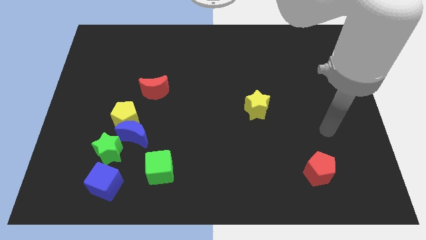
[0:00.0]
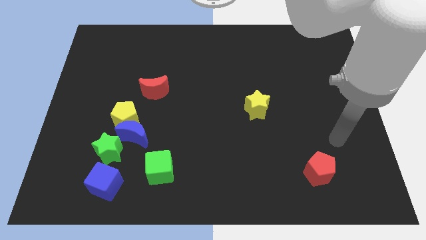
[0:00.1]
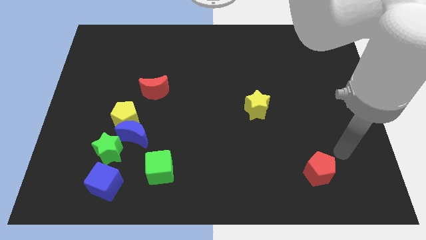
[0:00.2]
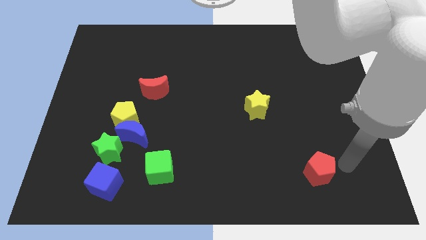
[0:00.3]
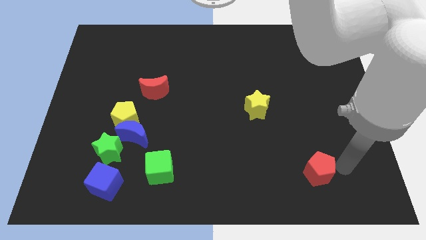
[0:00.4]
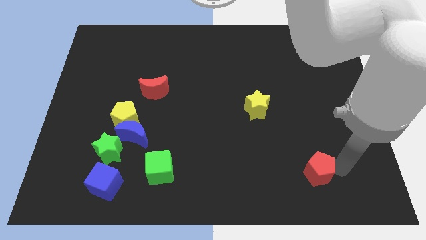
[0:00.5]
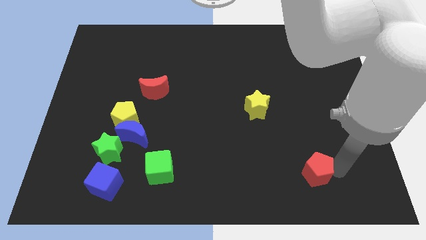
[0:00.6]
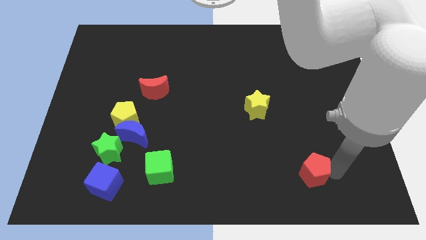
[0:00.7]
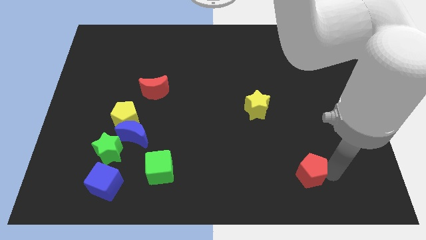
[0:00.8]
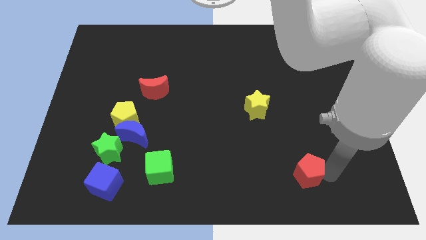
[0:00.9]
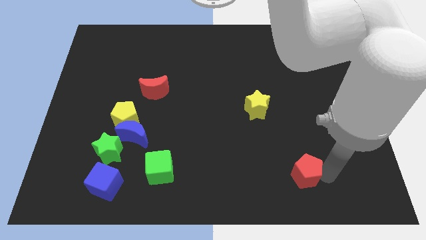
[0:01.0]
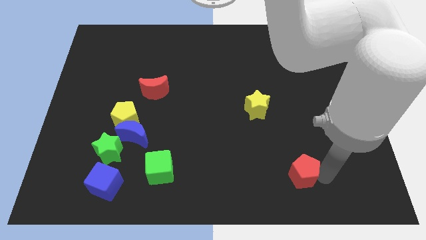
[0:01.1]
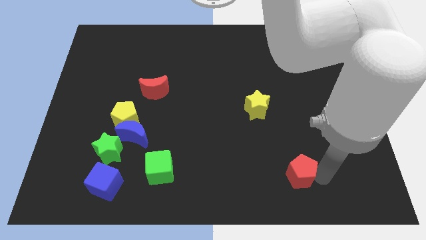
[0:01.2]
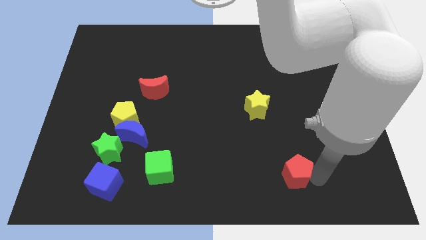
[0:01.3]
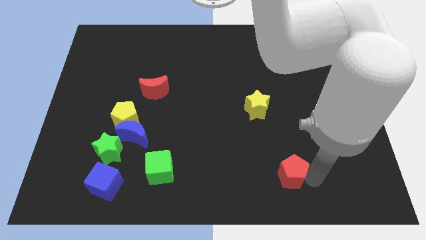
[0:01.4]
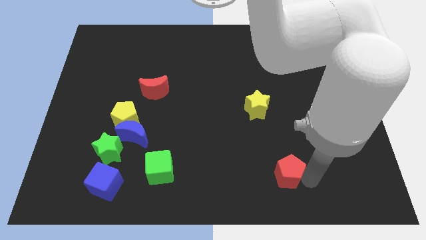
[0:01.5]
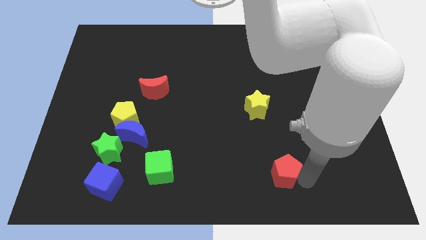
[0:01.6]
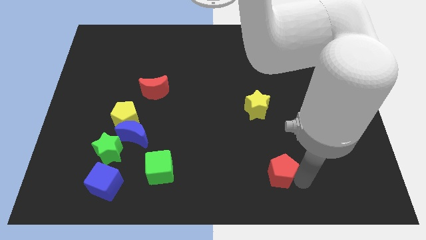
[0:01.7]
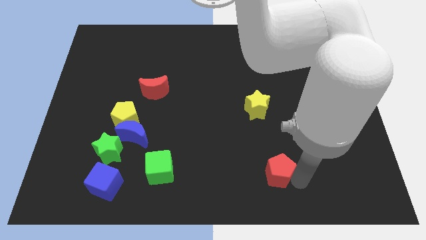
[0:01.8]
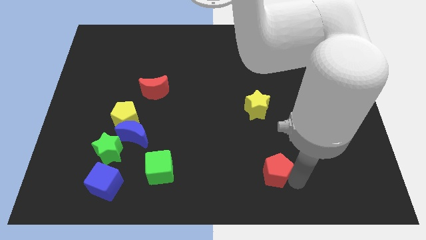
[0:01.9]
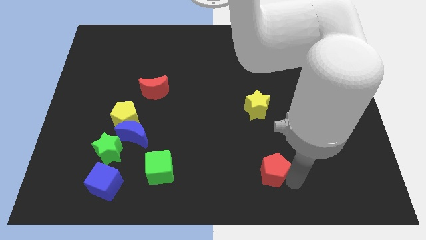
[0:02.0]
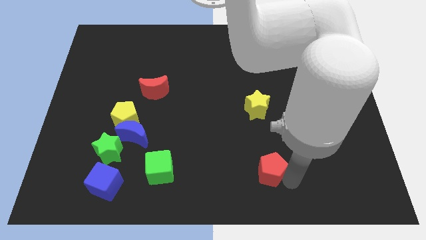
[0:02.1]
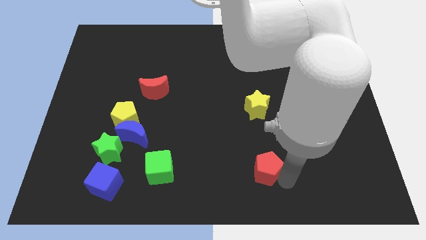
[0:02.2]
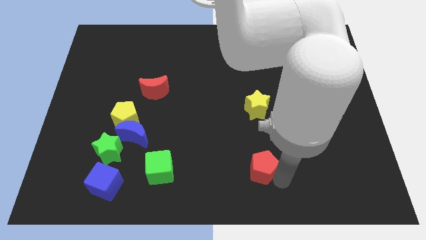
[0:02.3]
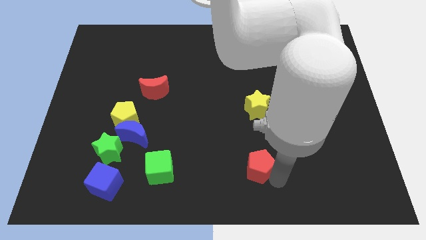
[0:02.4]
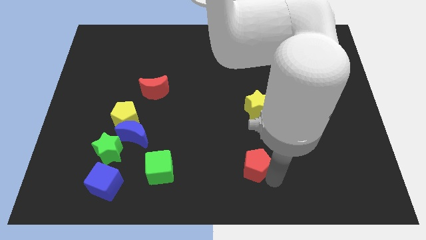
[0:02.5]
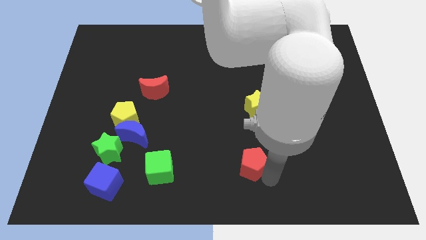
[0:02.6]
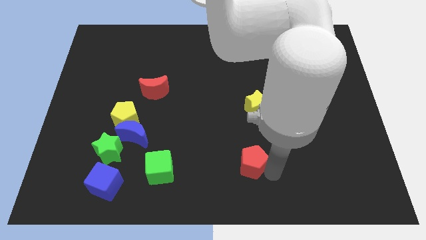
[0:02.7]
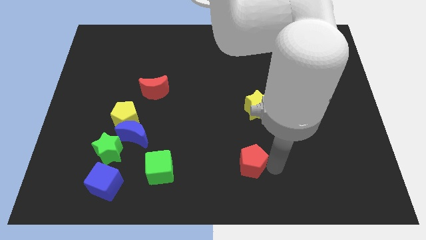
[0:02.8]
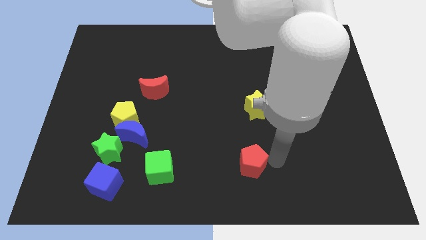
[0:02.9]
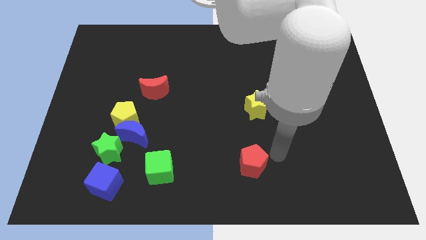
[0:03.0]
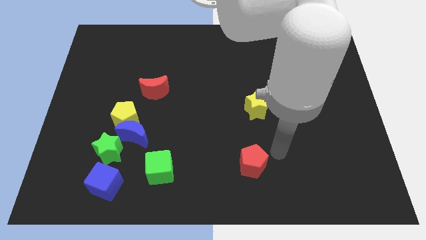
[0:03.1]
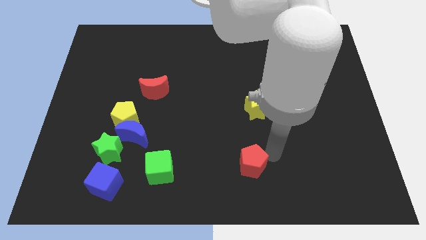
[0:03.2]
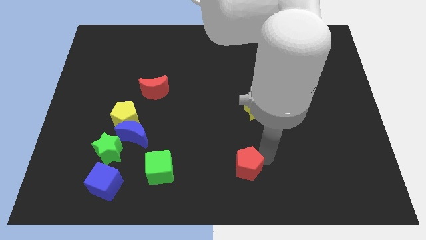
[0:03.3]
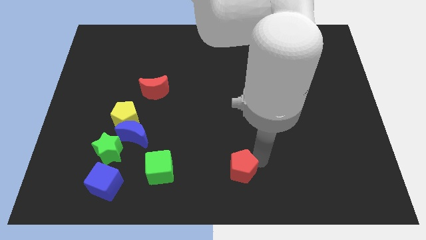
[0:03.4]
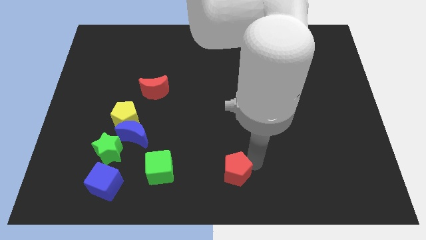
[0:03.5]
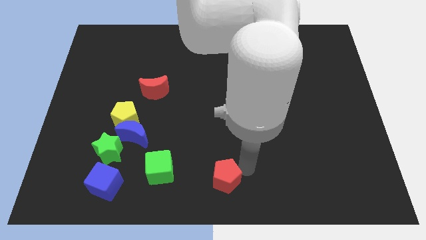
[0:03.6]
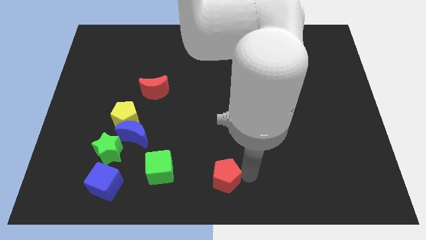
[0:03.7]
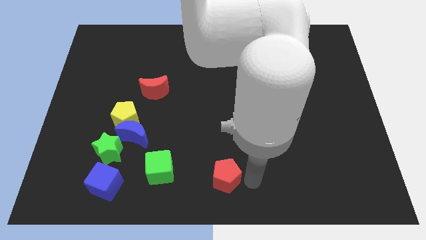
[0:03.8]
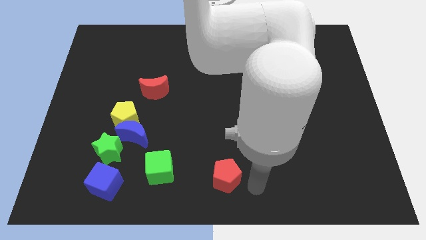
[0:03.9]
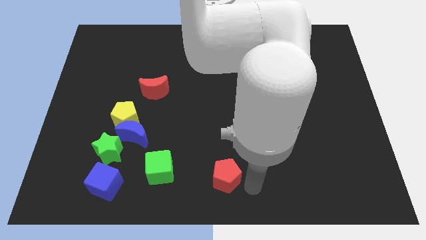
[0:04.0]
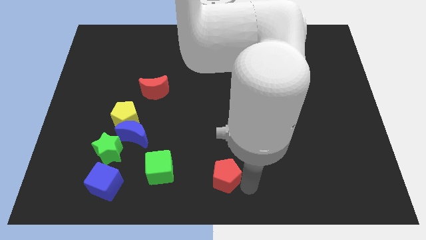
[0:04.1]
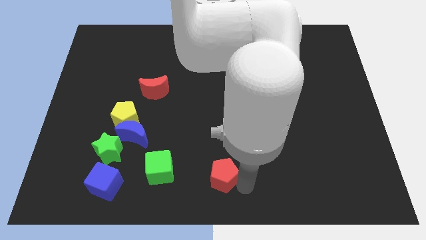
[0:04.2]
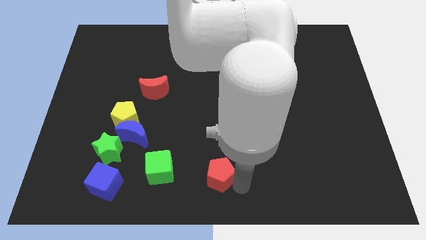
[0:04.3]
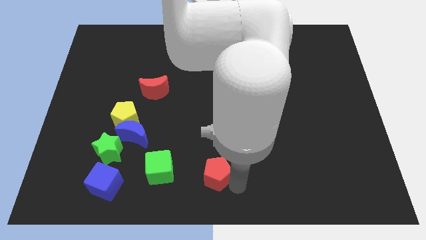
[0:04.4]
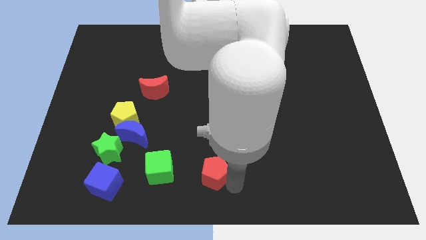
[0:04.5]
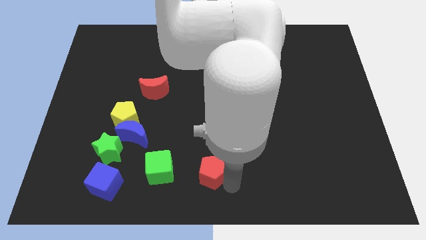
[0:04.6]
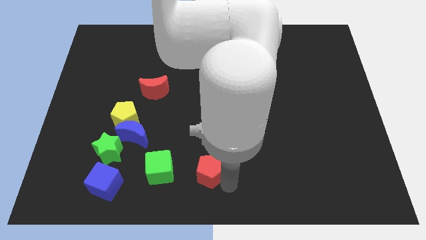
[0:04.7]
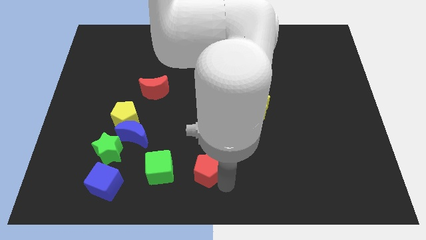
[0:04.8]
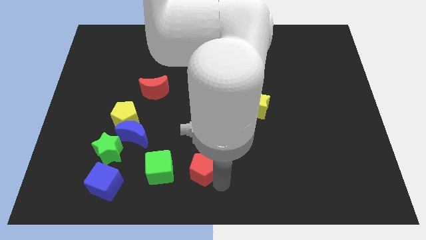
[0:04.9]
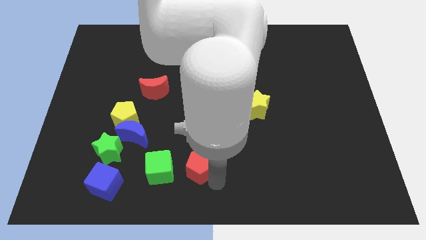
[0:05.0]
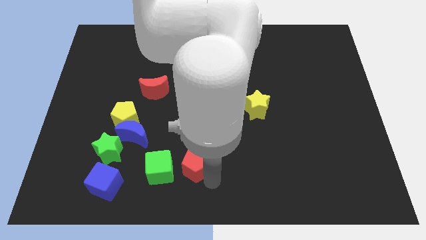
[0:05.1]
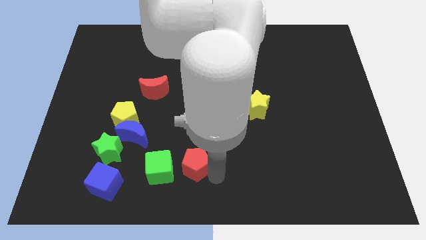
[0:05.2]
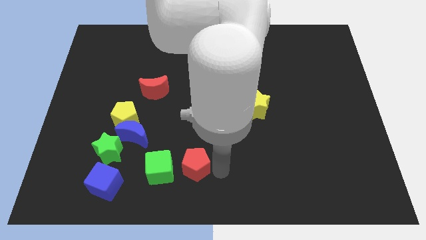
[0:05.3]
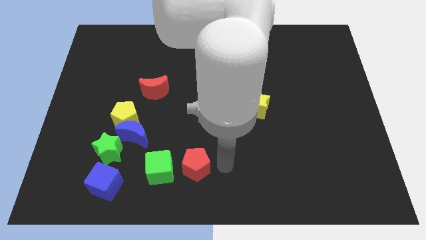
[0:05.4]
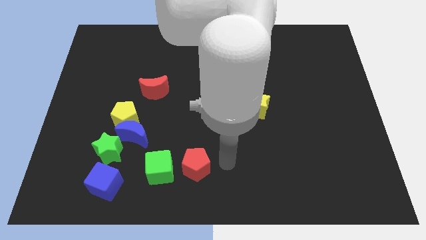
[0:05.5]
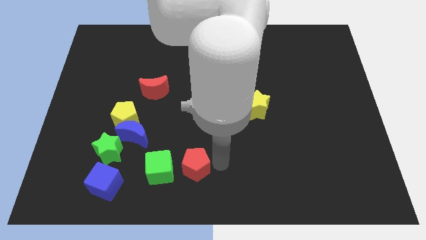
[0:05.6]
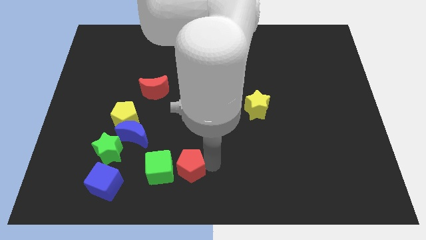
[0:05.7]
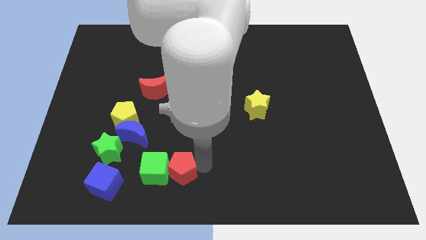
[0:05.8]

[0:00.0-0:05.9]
slide the red pentagon next to the green cube

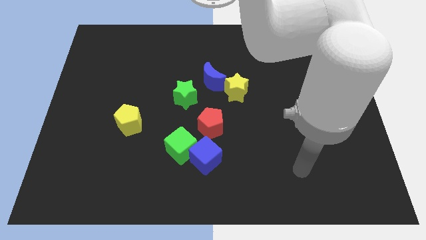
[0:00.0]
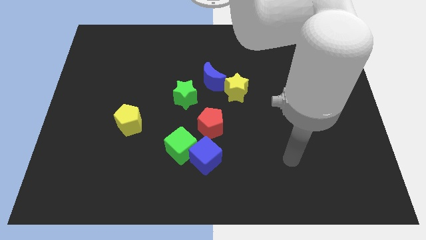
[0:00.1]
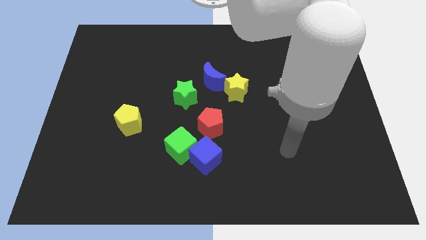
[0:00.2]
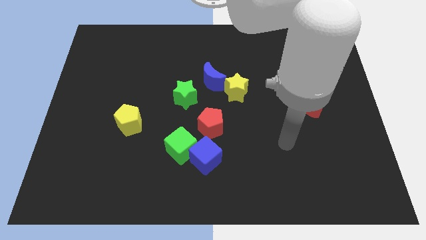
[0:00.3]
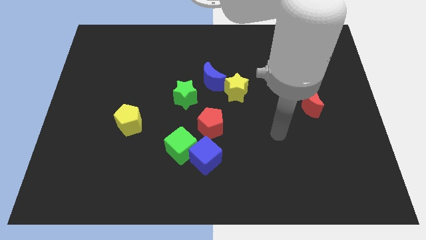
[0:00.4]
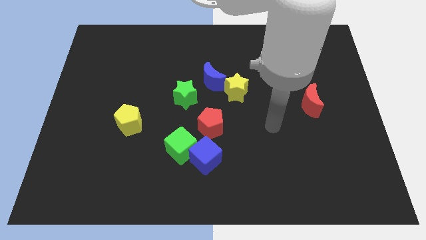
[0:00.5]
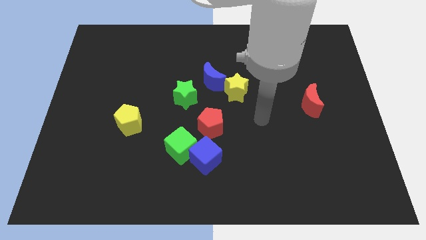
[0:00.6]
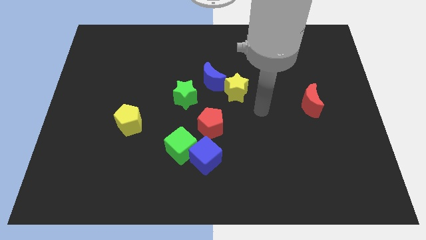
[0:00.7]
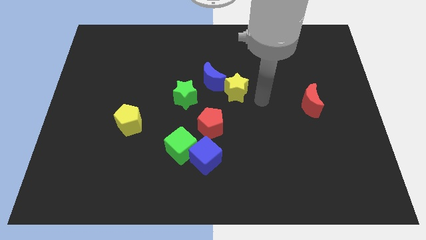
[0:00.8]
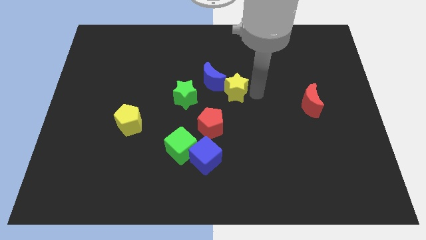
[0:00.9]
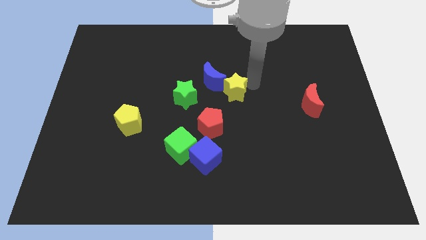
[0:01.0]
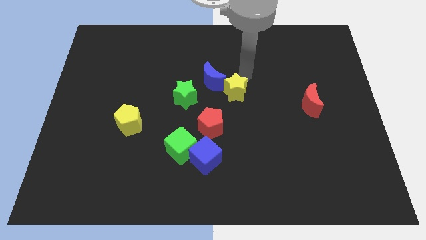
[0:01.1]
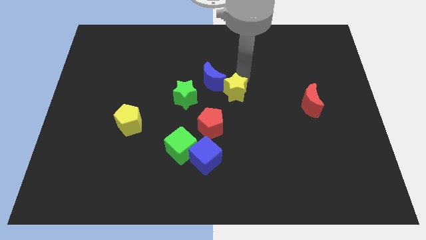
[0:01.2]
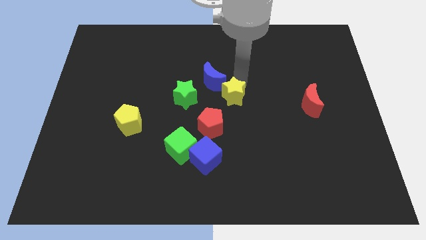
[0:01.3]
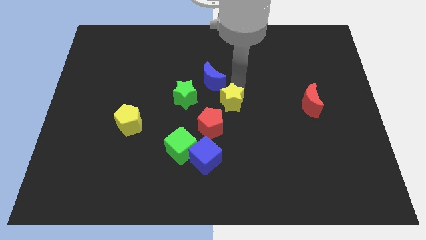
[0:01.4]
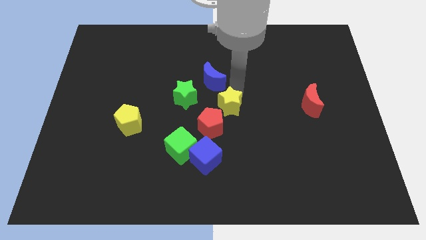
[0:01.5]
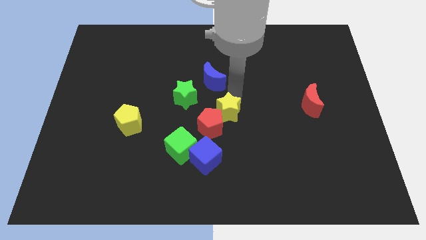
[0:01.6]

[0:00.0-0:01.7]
push the yellow star next to the red pentagon
